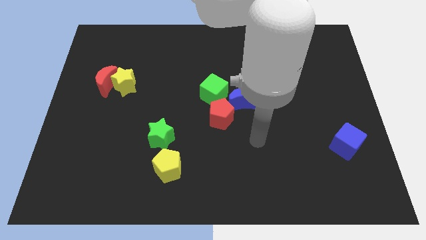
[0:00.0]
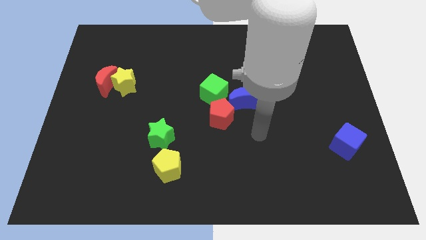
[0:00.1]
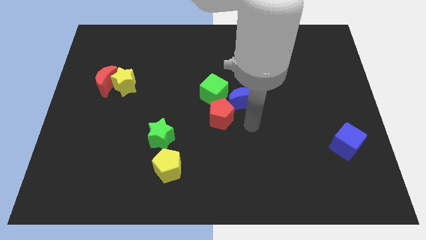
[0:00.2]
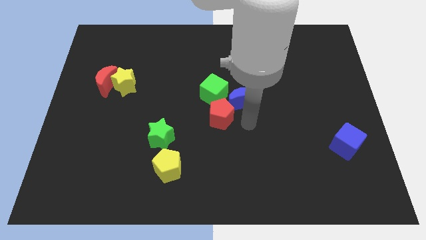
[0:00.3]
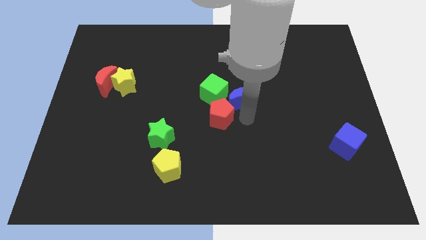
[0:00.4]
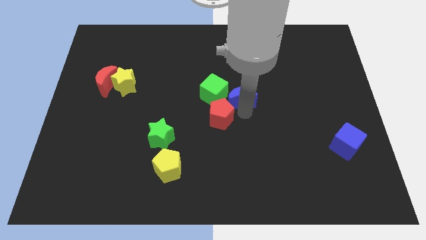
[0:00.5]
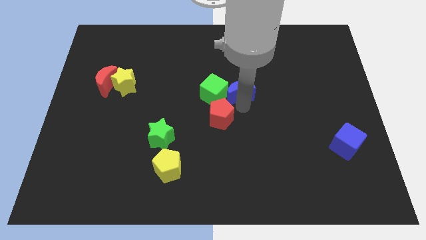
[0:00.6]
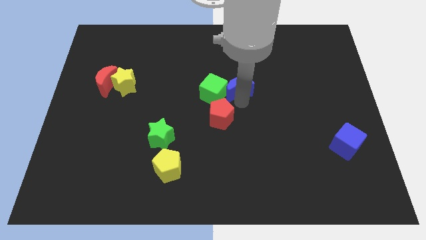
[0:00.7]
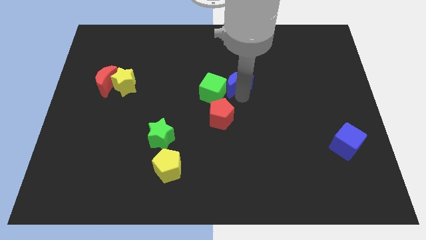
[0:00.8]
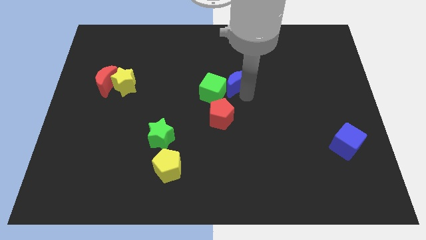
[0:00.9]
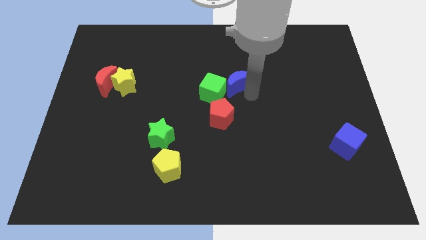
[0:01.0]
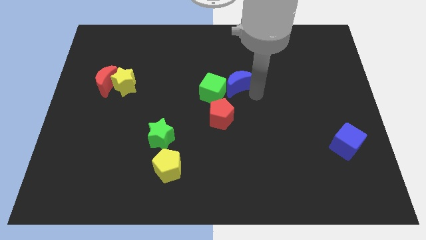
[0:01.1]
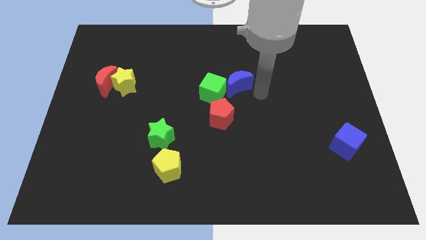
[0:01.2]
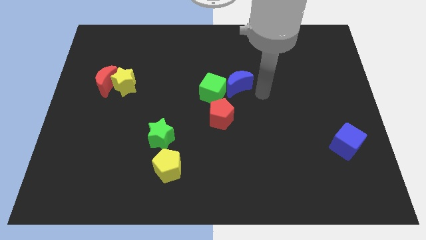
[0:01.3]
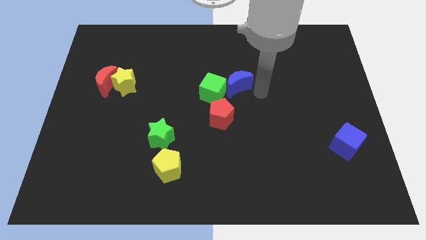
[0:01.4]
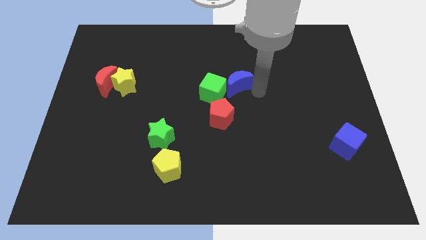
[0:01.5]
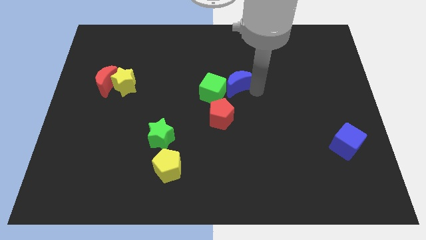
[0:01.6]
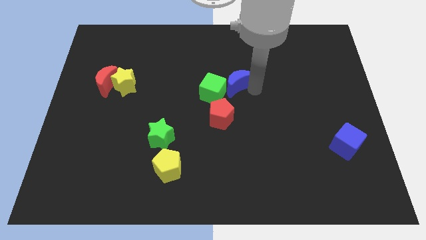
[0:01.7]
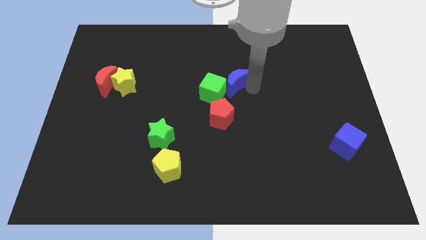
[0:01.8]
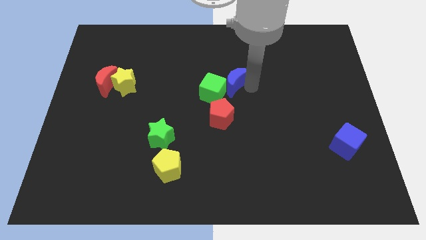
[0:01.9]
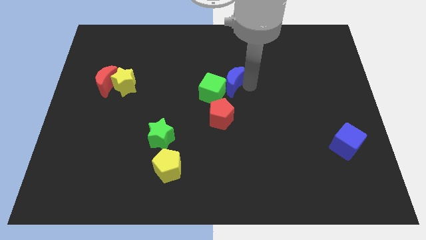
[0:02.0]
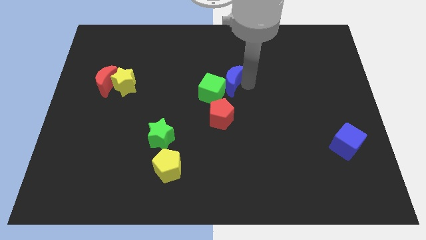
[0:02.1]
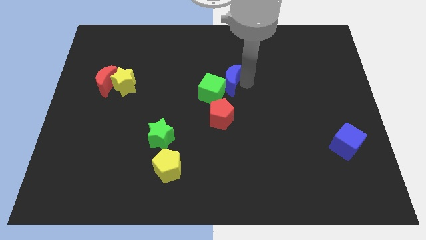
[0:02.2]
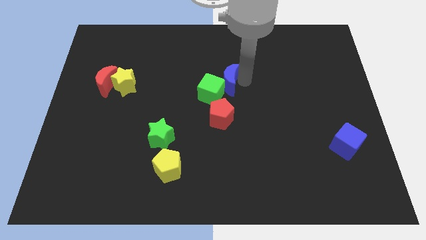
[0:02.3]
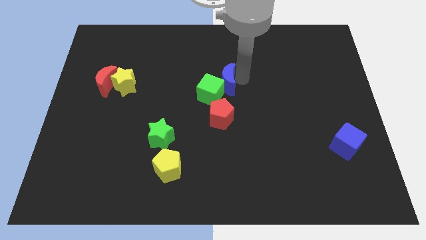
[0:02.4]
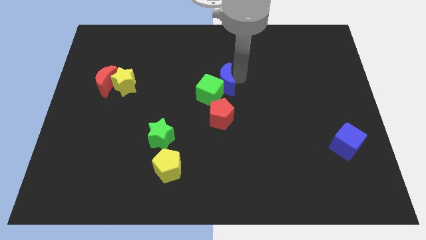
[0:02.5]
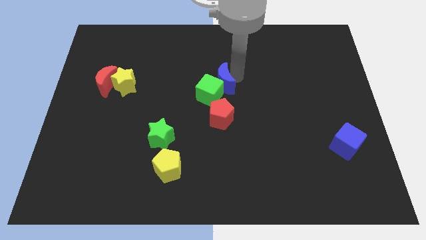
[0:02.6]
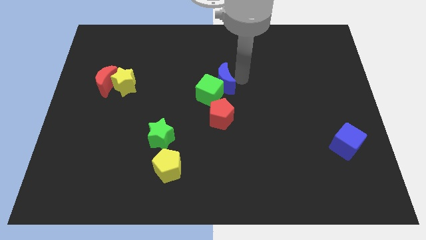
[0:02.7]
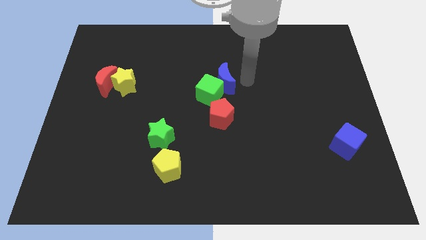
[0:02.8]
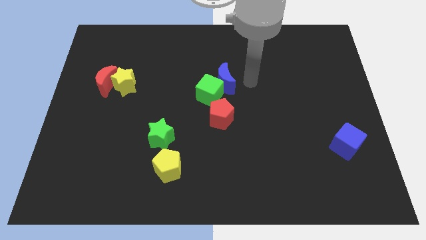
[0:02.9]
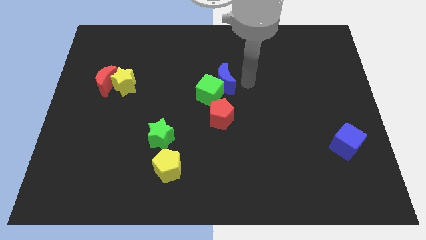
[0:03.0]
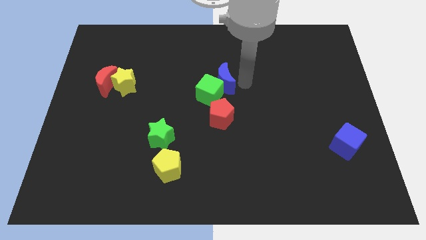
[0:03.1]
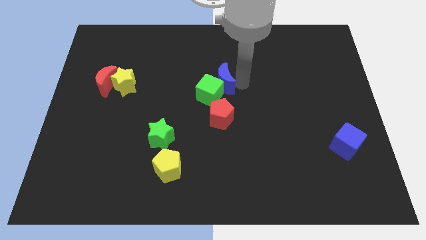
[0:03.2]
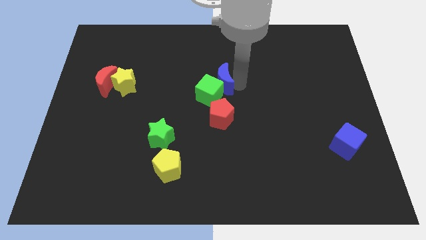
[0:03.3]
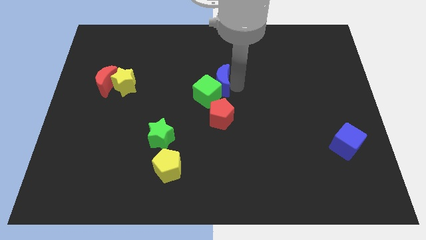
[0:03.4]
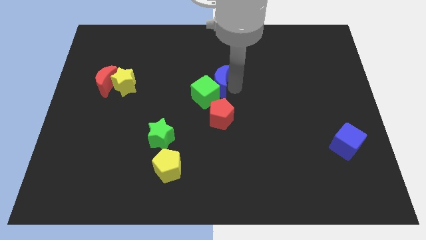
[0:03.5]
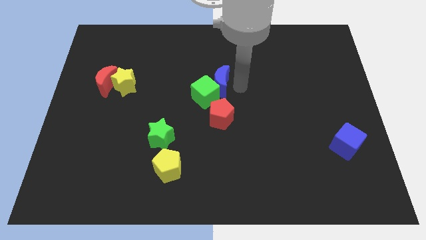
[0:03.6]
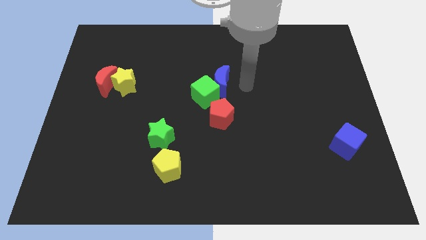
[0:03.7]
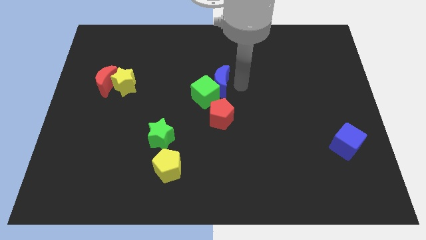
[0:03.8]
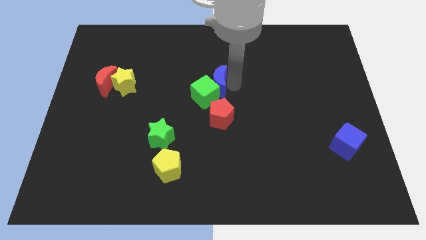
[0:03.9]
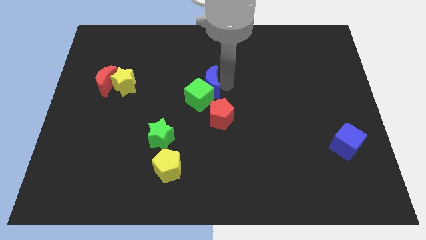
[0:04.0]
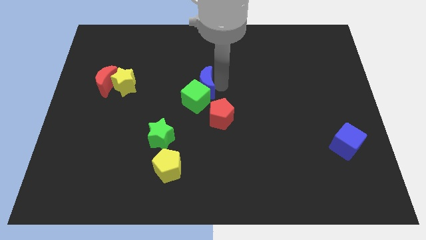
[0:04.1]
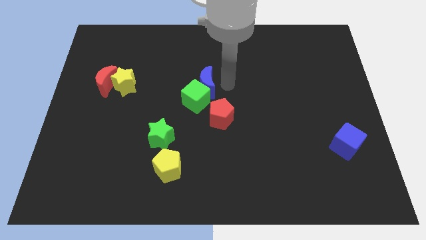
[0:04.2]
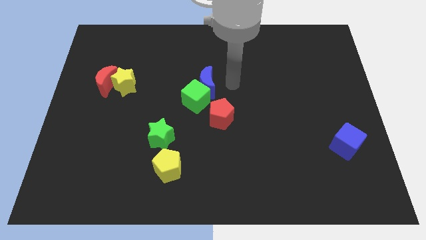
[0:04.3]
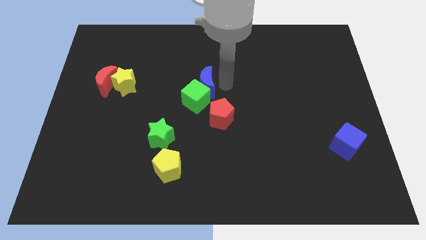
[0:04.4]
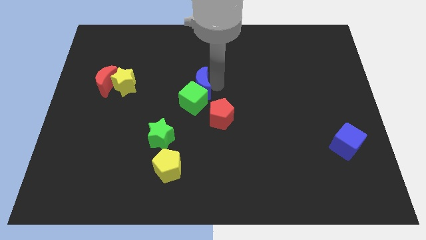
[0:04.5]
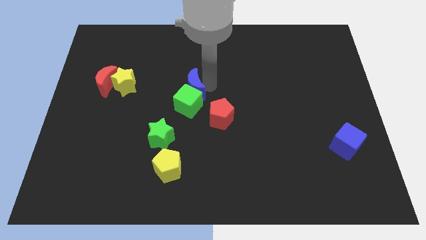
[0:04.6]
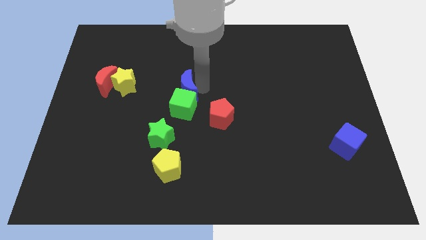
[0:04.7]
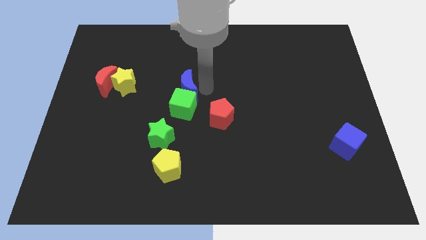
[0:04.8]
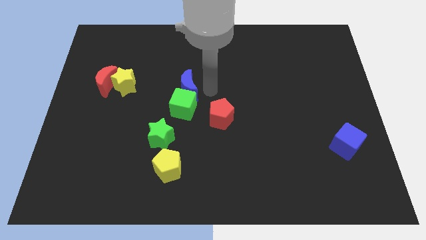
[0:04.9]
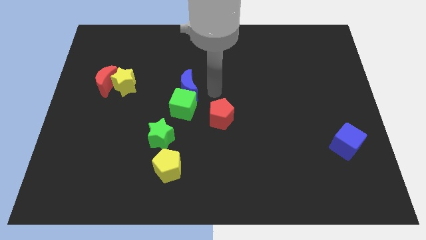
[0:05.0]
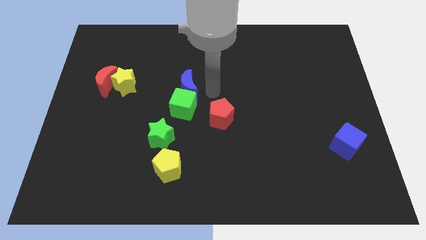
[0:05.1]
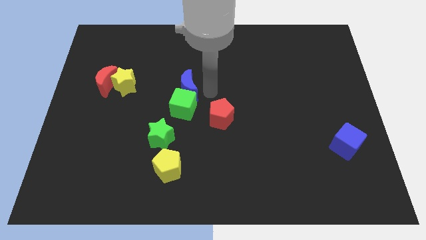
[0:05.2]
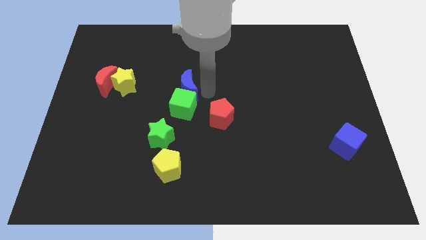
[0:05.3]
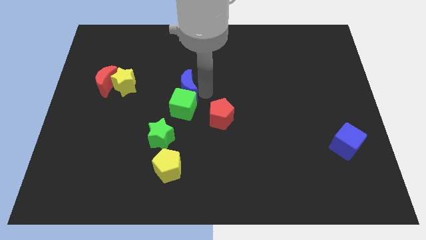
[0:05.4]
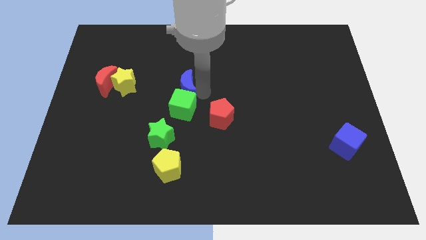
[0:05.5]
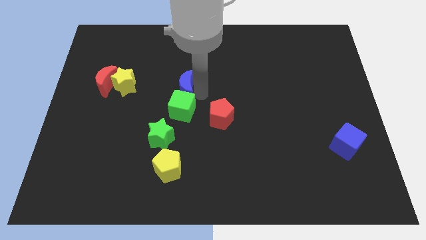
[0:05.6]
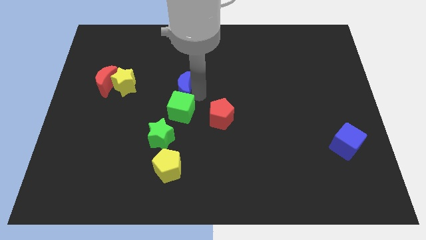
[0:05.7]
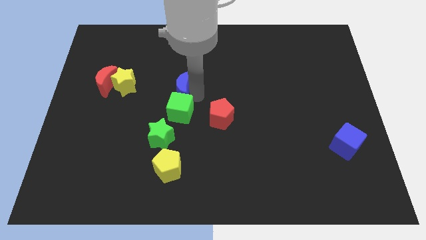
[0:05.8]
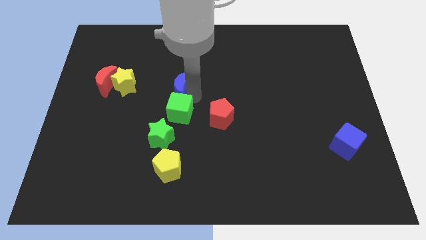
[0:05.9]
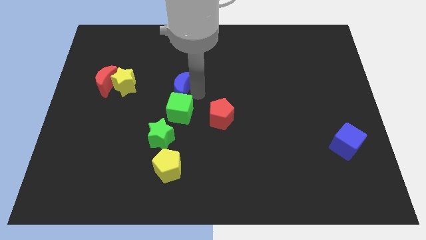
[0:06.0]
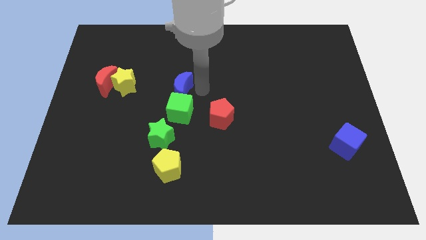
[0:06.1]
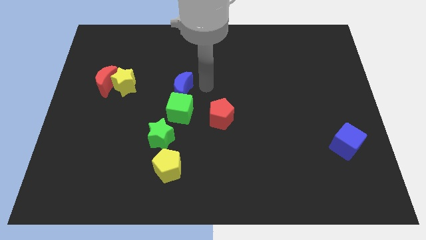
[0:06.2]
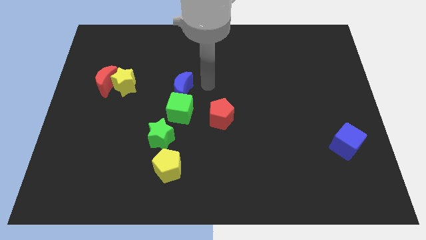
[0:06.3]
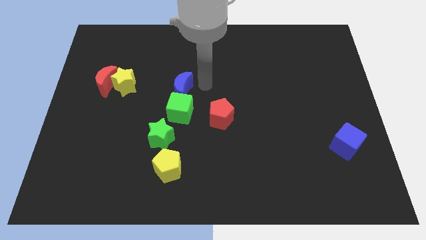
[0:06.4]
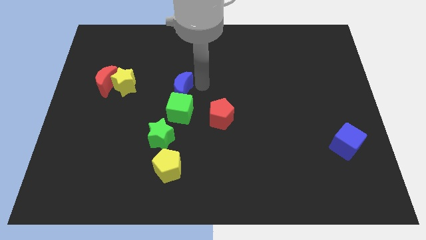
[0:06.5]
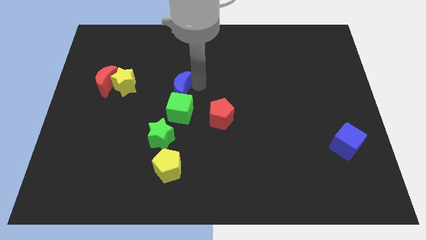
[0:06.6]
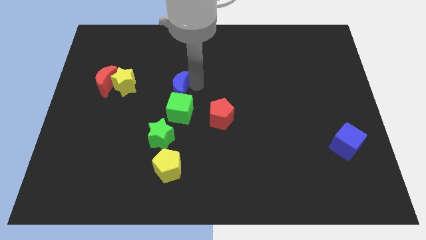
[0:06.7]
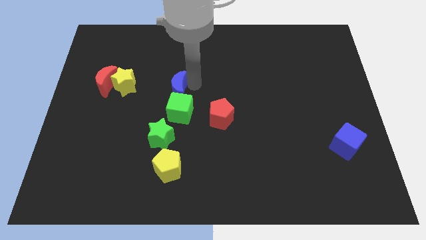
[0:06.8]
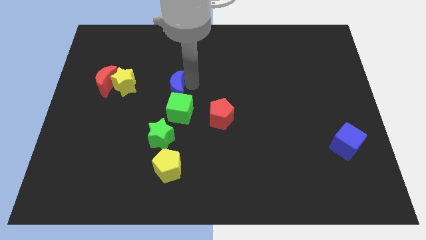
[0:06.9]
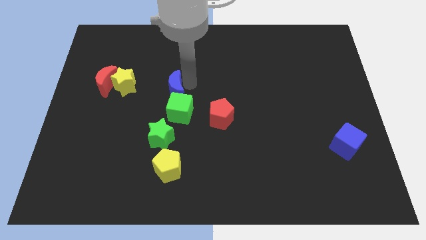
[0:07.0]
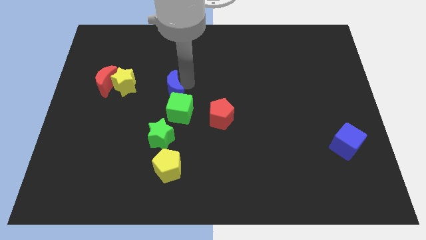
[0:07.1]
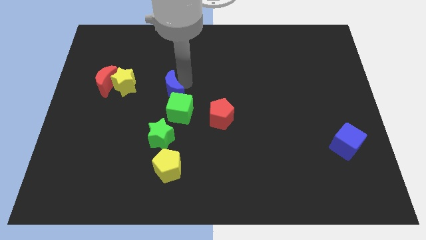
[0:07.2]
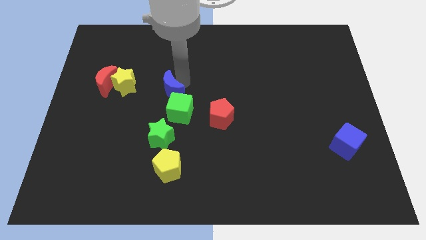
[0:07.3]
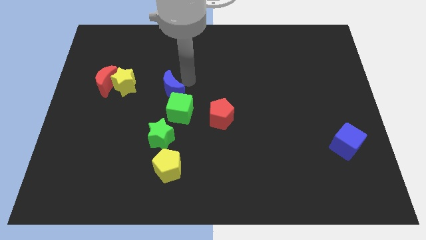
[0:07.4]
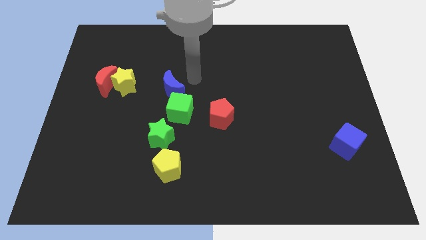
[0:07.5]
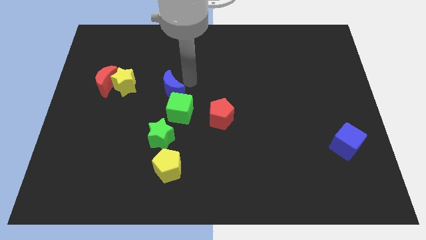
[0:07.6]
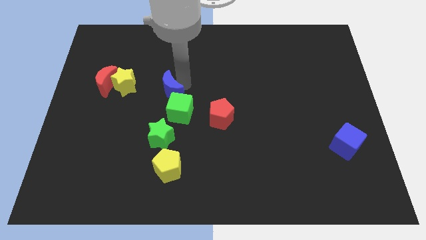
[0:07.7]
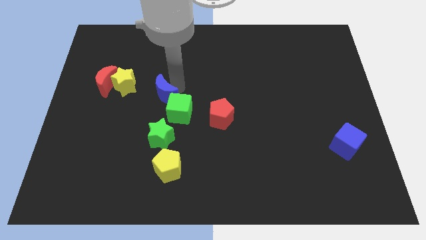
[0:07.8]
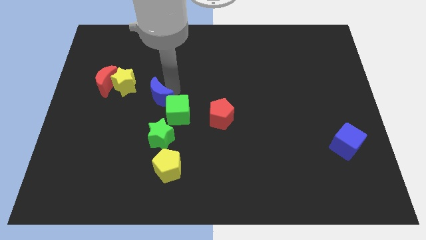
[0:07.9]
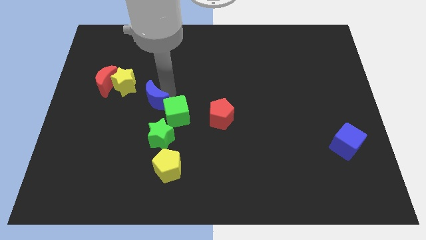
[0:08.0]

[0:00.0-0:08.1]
move the blue moon to the left

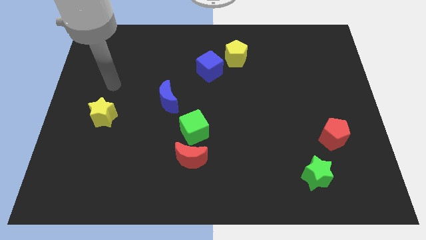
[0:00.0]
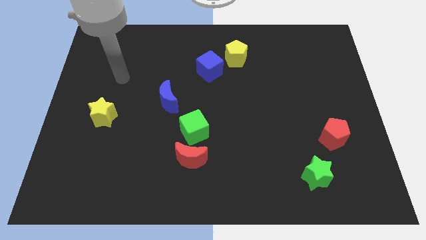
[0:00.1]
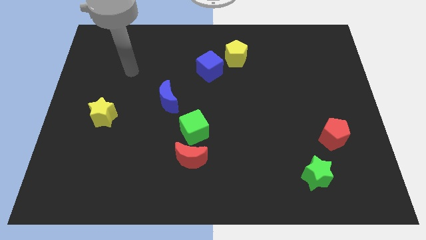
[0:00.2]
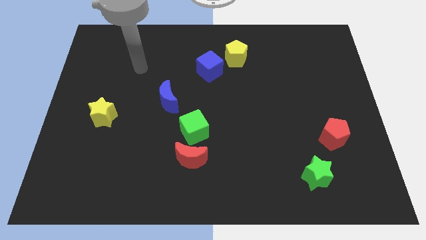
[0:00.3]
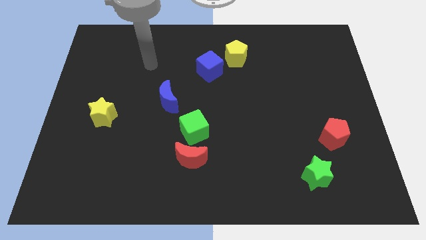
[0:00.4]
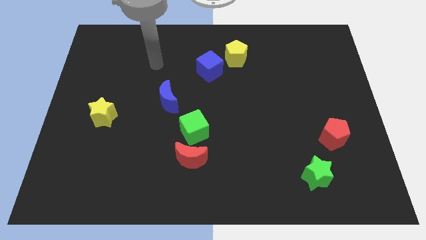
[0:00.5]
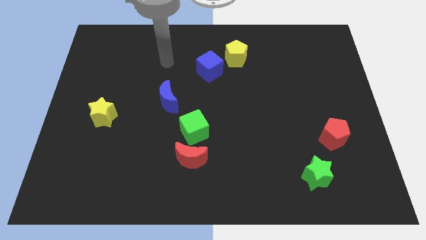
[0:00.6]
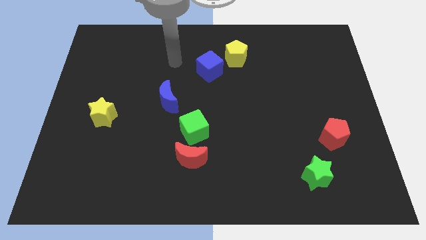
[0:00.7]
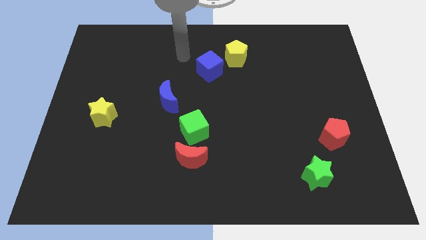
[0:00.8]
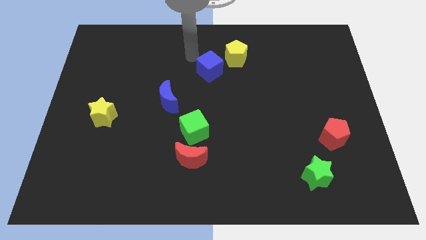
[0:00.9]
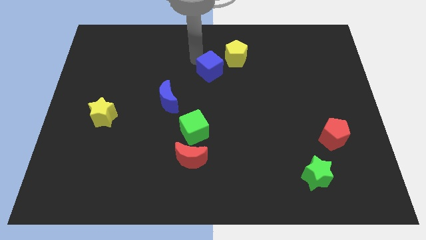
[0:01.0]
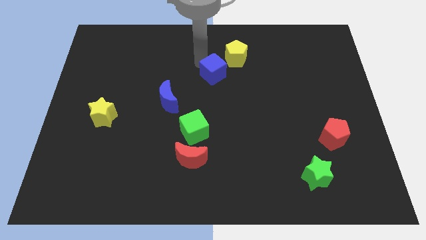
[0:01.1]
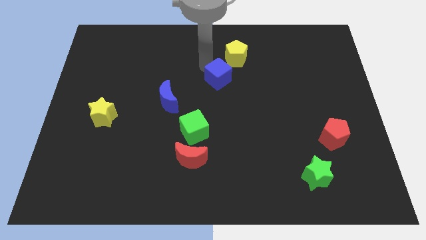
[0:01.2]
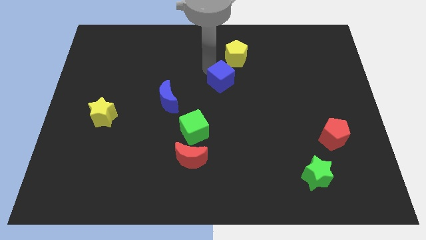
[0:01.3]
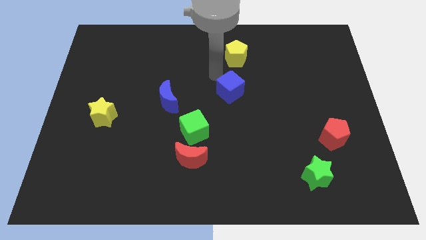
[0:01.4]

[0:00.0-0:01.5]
push the blue cube down and to the right diagonally somewhat
